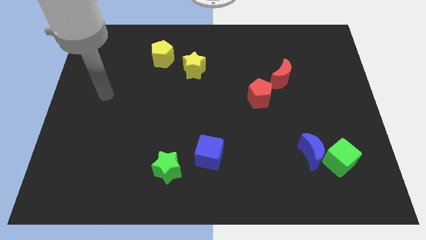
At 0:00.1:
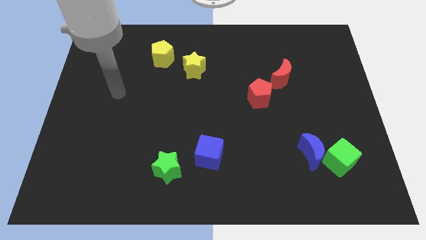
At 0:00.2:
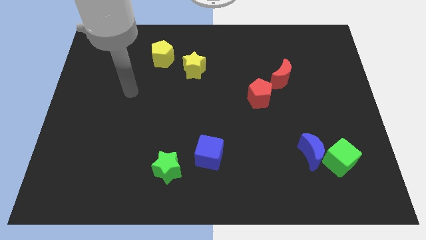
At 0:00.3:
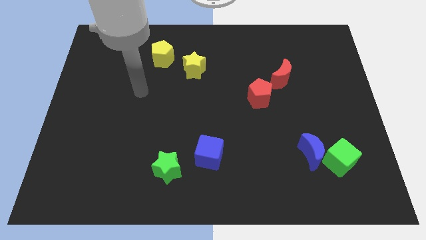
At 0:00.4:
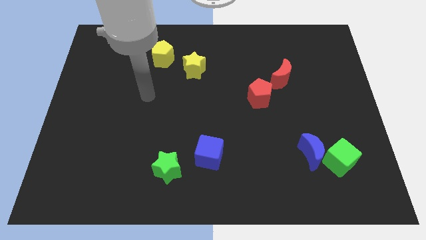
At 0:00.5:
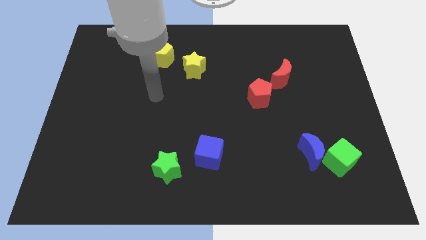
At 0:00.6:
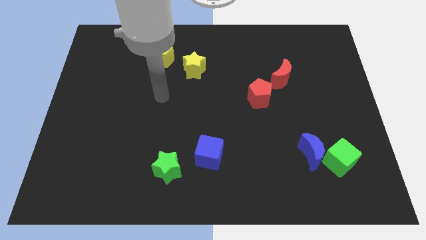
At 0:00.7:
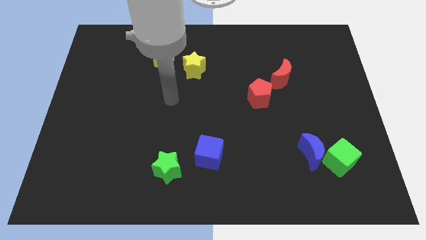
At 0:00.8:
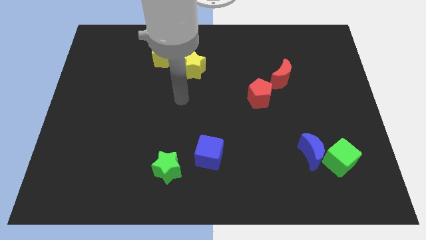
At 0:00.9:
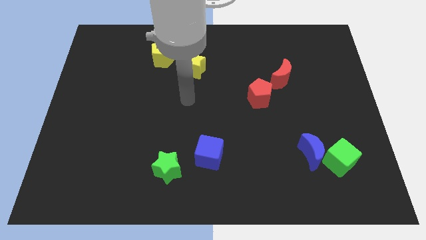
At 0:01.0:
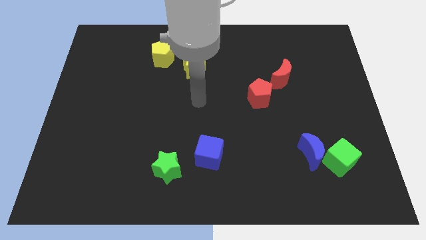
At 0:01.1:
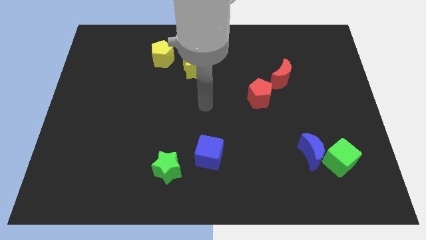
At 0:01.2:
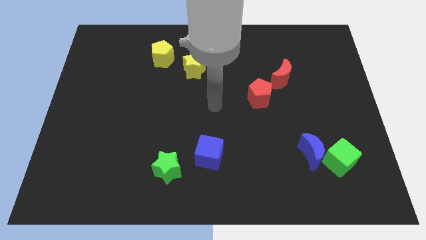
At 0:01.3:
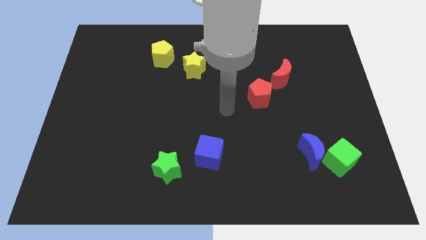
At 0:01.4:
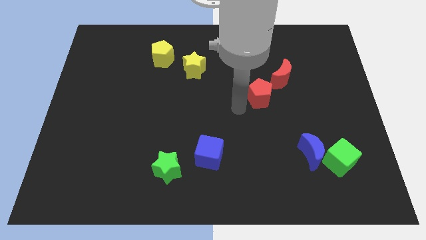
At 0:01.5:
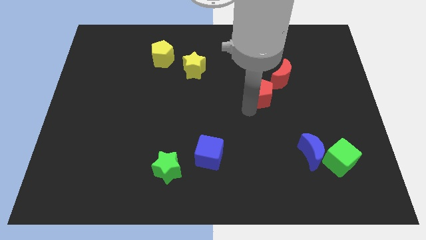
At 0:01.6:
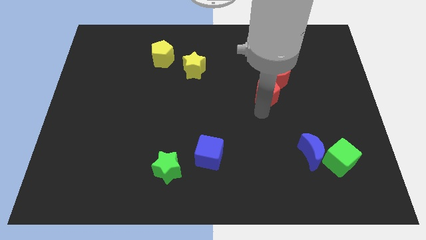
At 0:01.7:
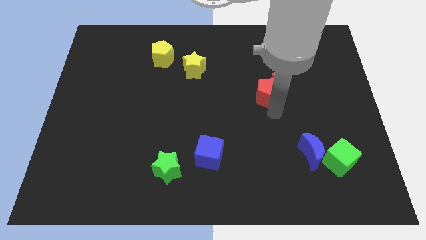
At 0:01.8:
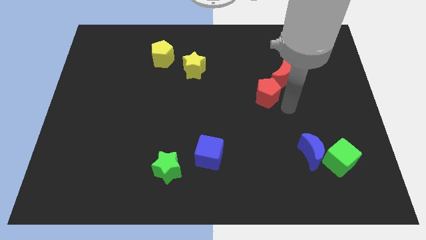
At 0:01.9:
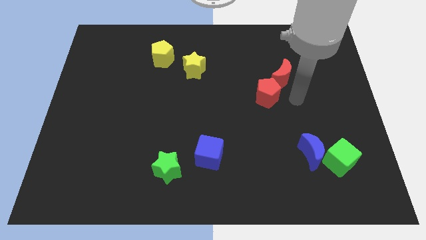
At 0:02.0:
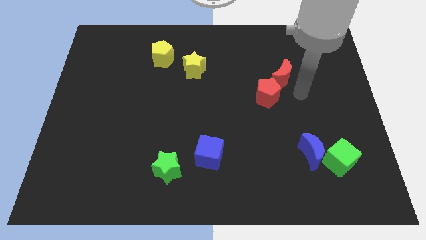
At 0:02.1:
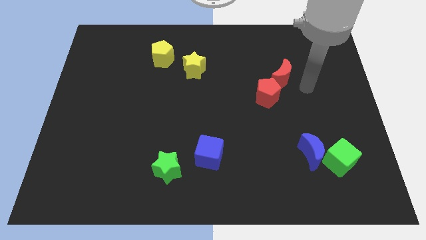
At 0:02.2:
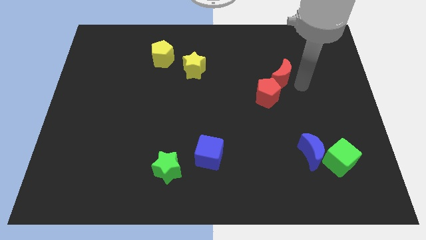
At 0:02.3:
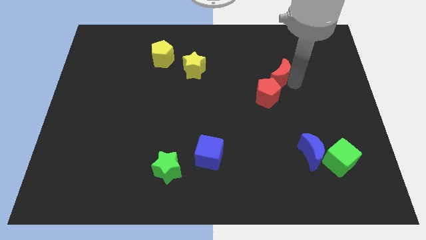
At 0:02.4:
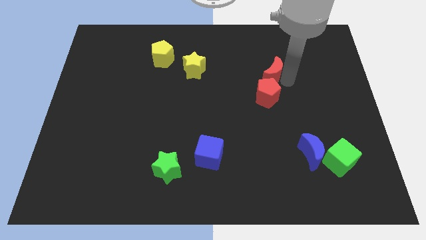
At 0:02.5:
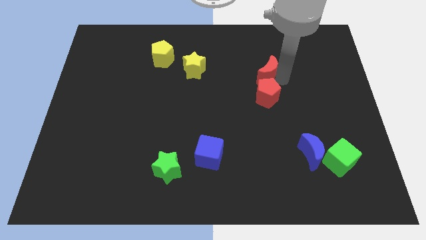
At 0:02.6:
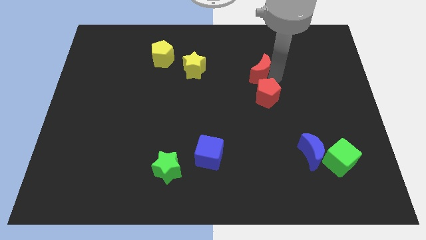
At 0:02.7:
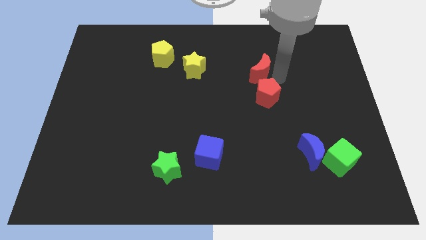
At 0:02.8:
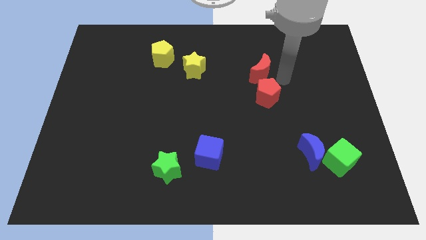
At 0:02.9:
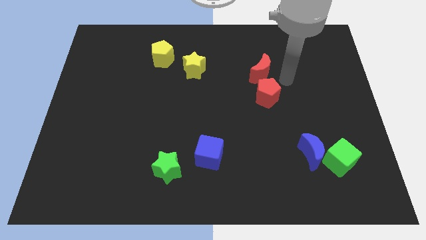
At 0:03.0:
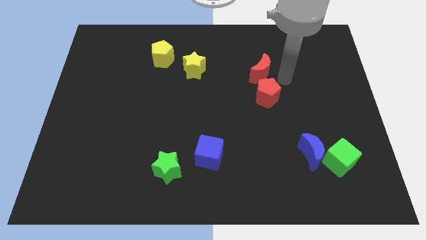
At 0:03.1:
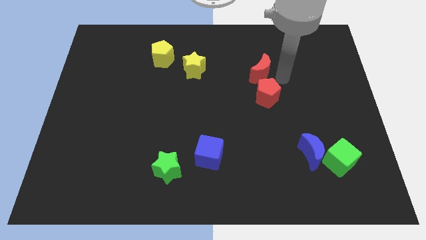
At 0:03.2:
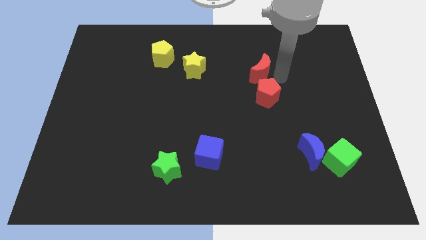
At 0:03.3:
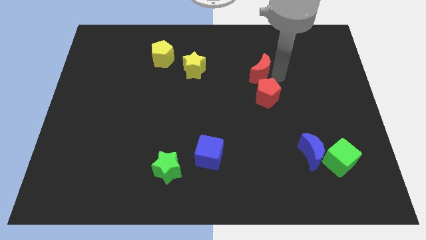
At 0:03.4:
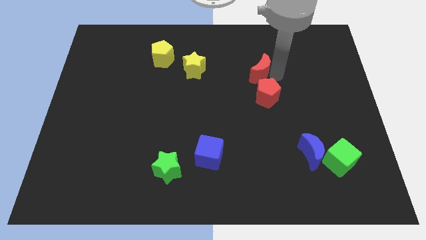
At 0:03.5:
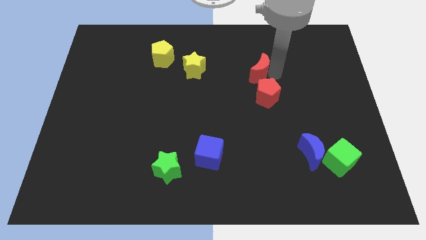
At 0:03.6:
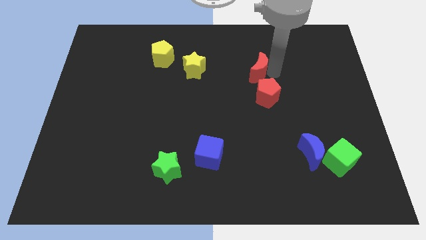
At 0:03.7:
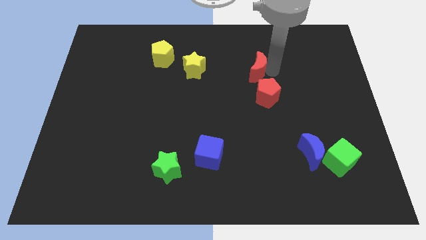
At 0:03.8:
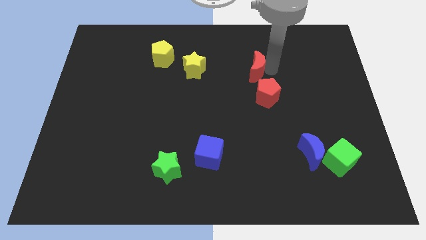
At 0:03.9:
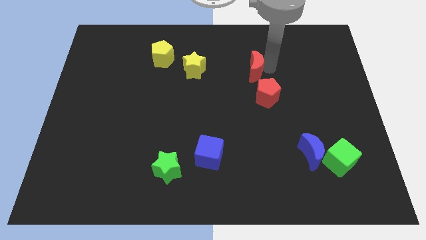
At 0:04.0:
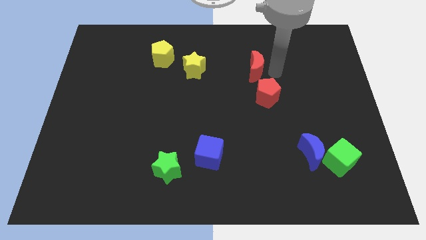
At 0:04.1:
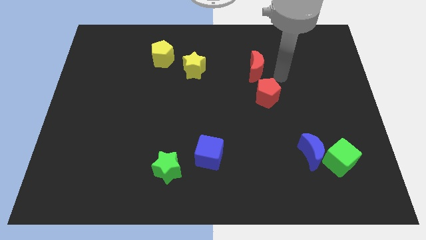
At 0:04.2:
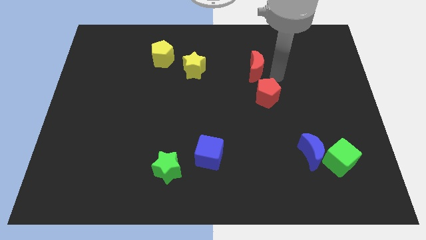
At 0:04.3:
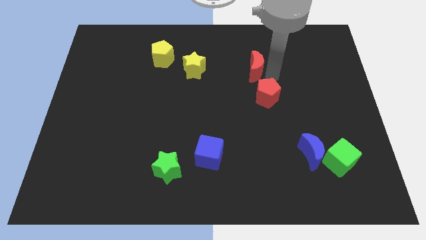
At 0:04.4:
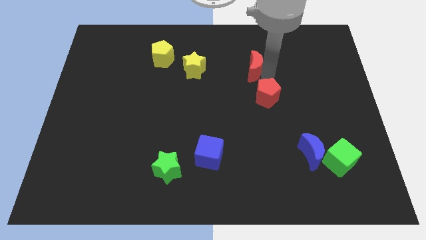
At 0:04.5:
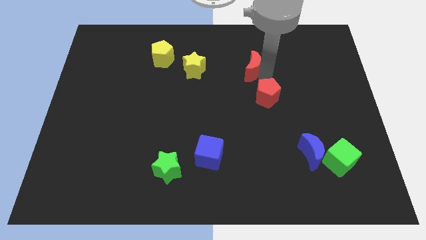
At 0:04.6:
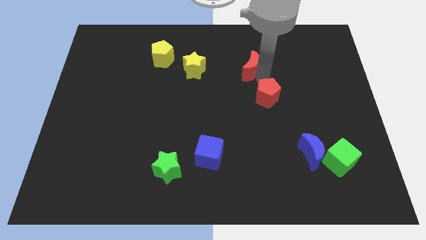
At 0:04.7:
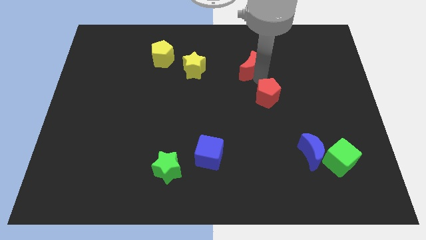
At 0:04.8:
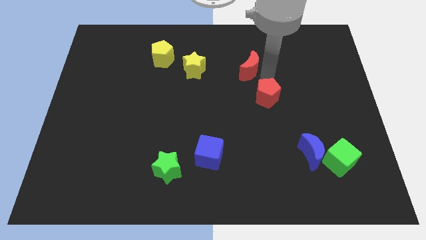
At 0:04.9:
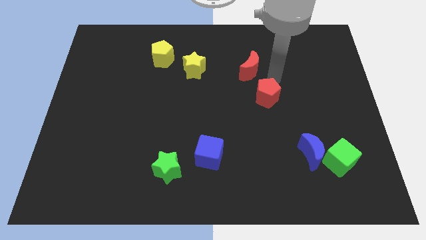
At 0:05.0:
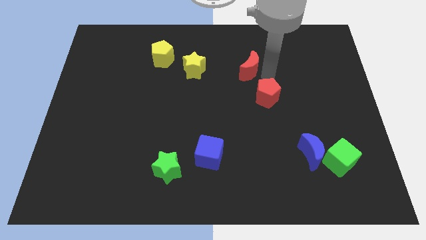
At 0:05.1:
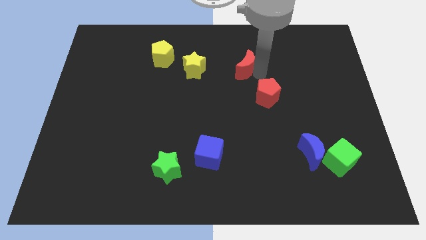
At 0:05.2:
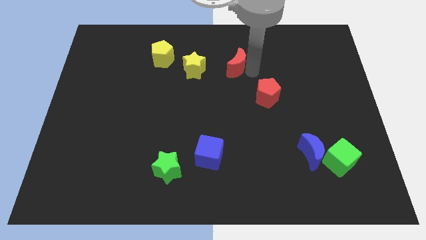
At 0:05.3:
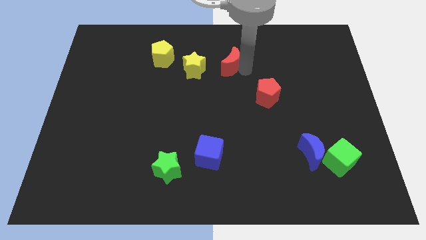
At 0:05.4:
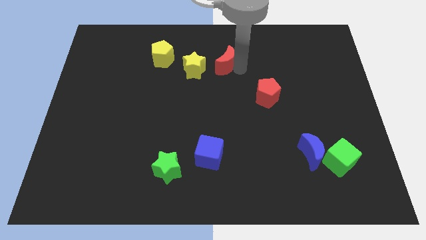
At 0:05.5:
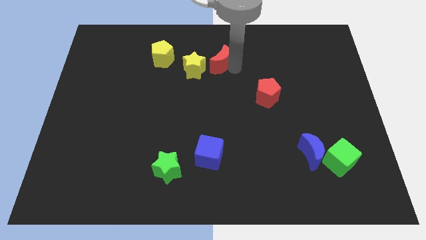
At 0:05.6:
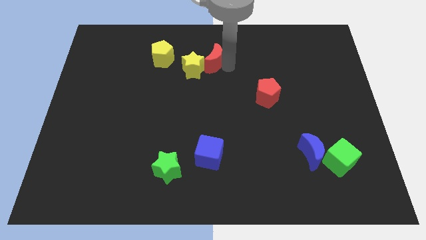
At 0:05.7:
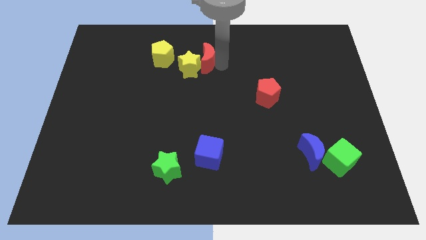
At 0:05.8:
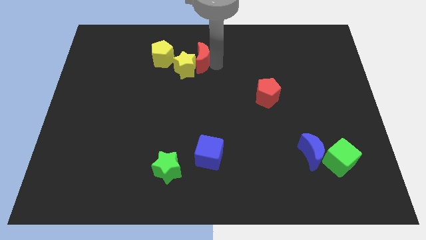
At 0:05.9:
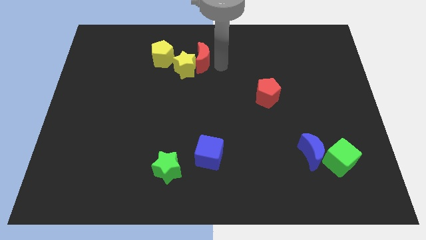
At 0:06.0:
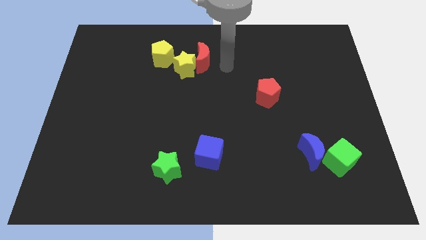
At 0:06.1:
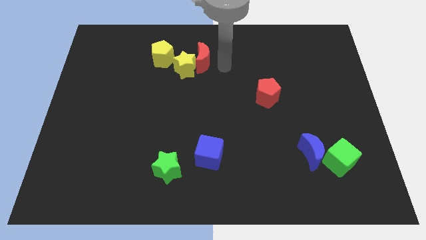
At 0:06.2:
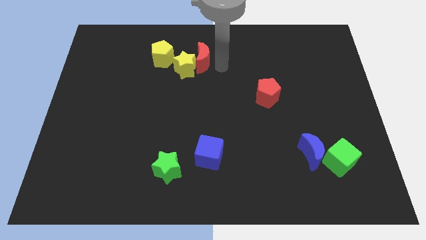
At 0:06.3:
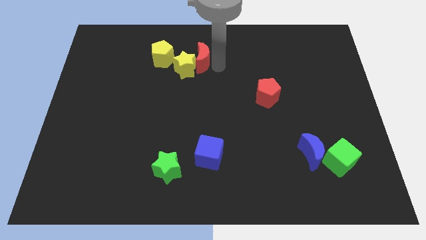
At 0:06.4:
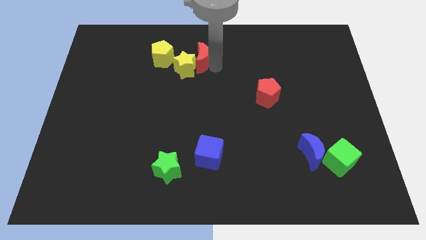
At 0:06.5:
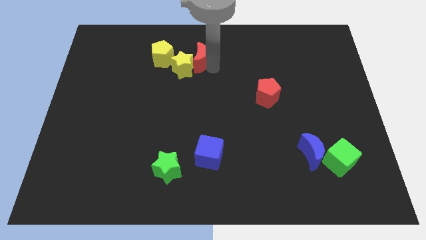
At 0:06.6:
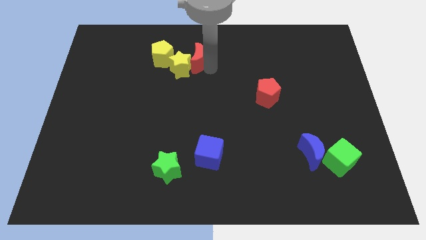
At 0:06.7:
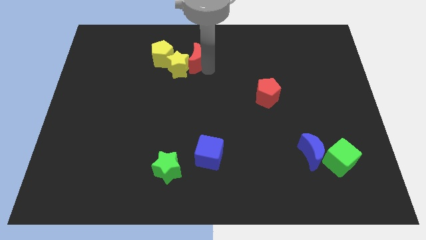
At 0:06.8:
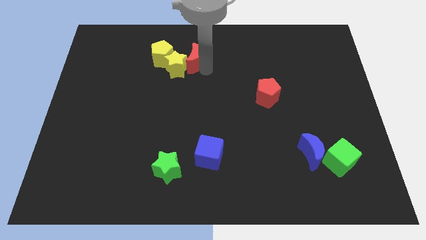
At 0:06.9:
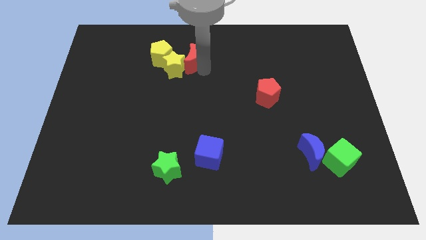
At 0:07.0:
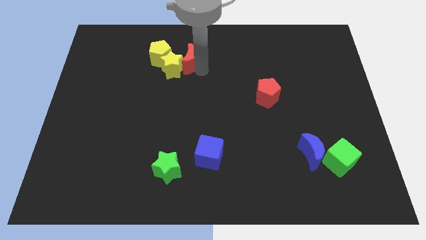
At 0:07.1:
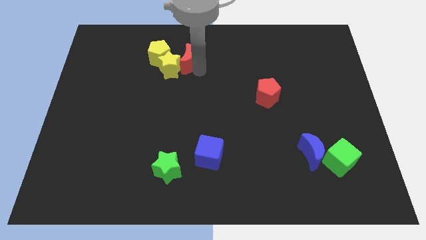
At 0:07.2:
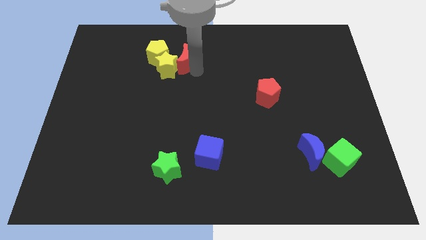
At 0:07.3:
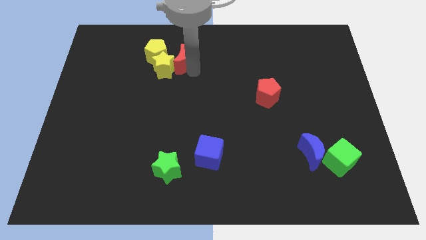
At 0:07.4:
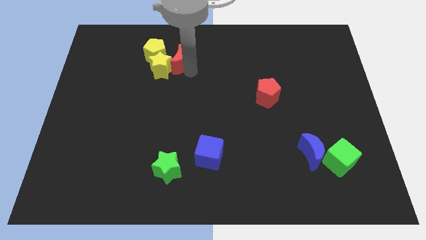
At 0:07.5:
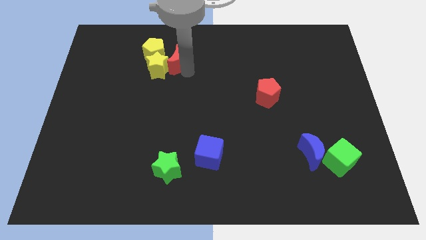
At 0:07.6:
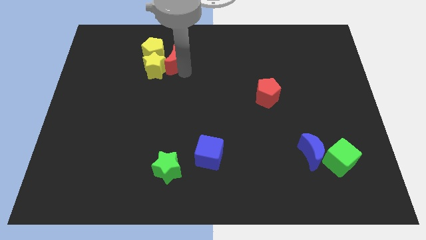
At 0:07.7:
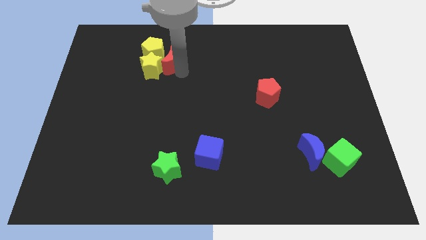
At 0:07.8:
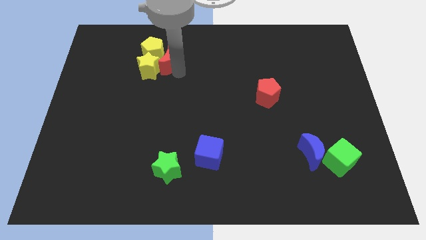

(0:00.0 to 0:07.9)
push the red moon towards the yellow pentagon
